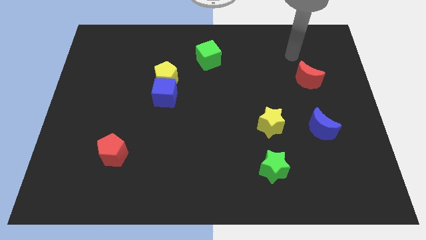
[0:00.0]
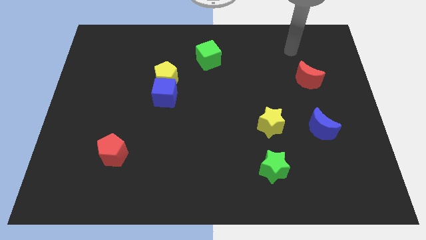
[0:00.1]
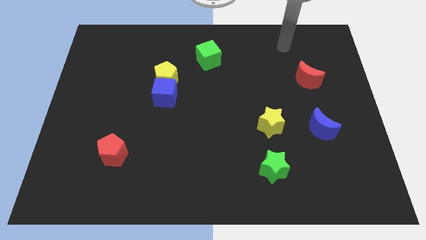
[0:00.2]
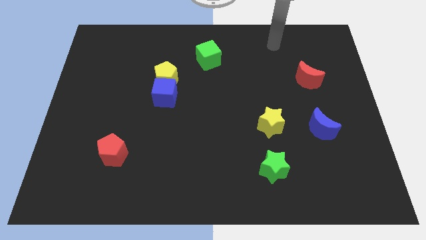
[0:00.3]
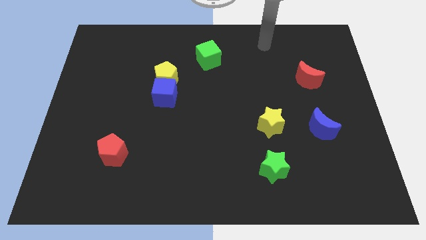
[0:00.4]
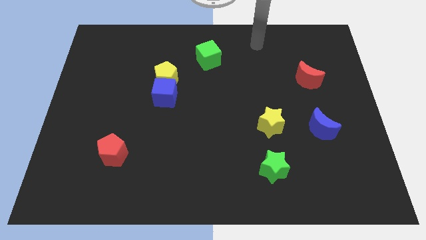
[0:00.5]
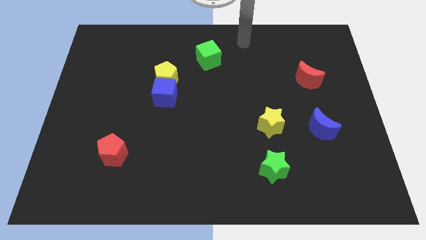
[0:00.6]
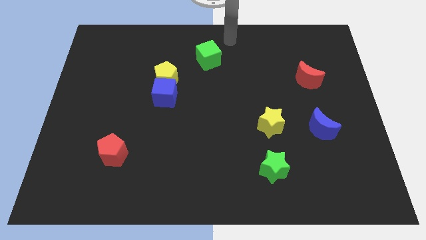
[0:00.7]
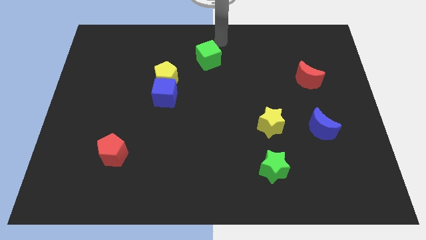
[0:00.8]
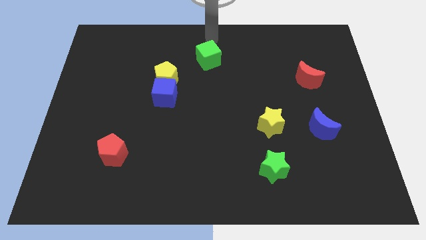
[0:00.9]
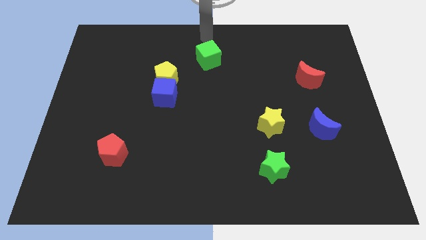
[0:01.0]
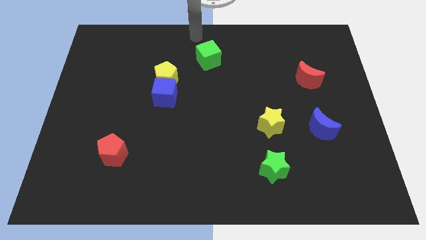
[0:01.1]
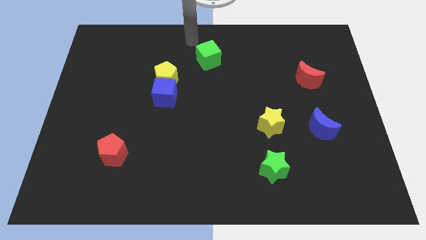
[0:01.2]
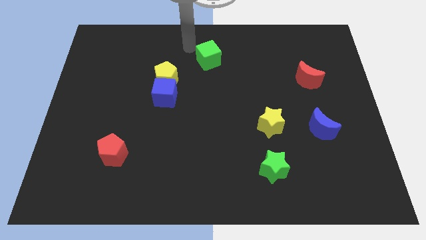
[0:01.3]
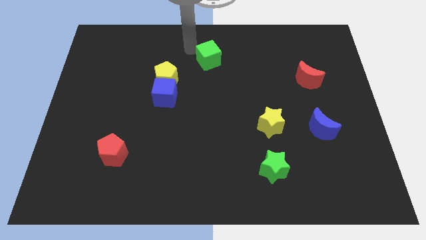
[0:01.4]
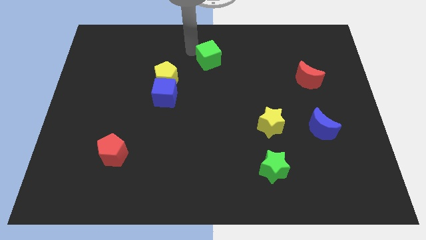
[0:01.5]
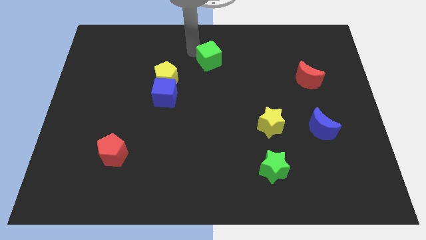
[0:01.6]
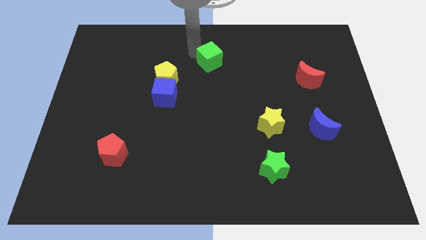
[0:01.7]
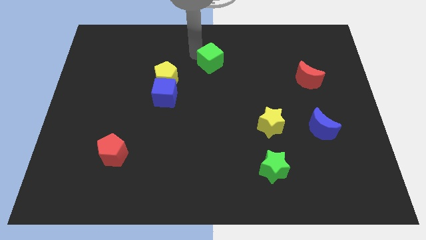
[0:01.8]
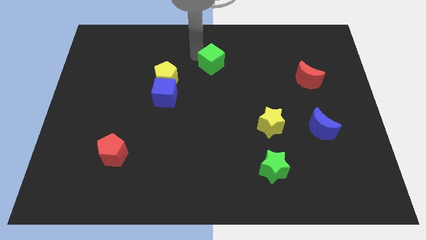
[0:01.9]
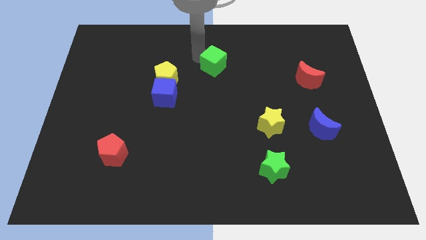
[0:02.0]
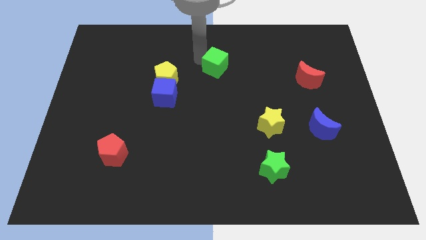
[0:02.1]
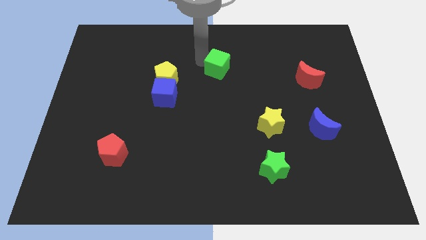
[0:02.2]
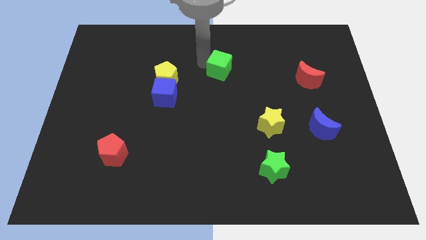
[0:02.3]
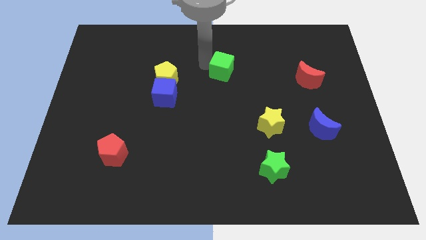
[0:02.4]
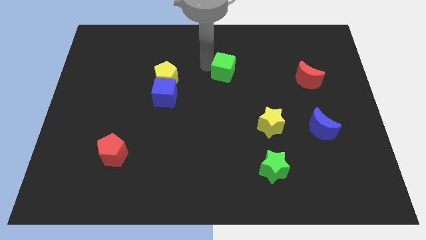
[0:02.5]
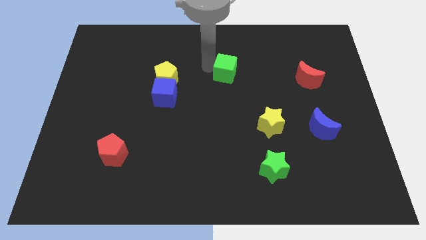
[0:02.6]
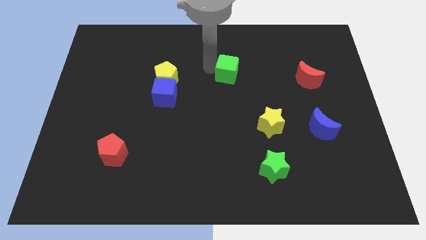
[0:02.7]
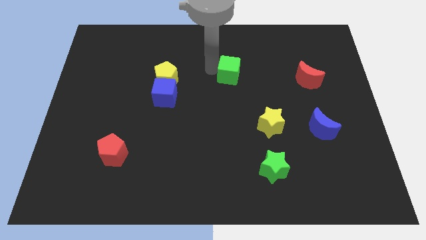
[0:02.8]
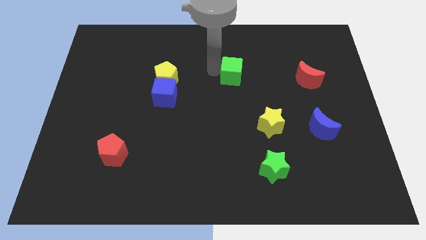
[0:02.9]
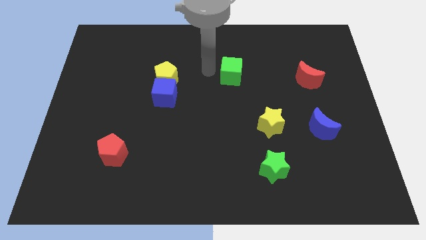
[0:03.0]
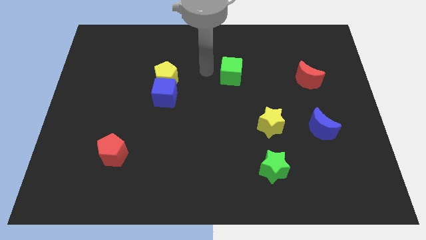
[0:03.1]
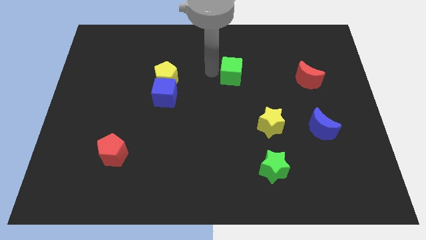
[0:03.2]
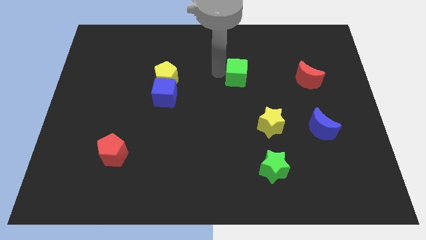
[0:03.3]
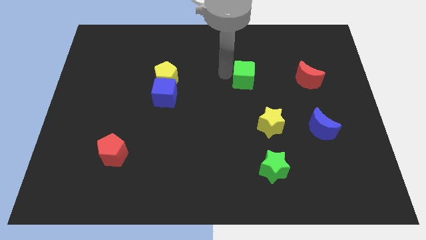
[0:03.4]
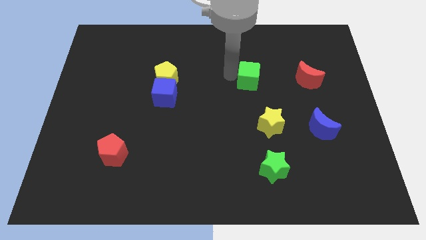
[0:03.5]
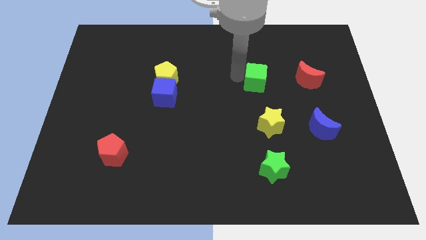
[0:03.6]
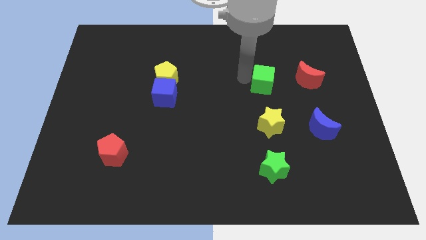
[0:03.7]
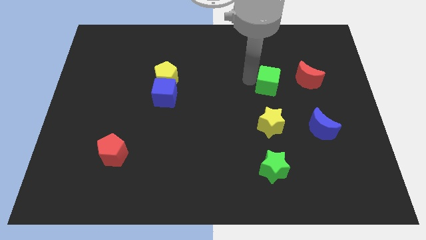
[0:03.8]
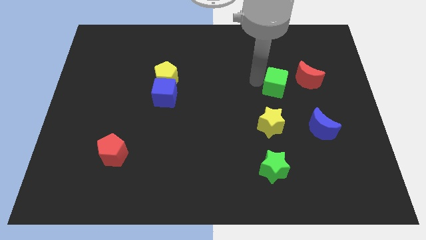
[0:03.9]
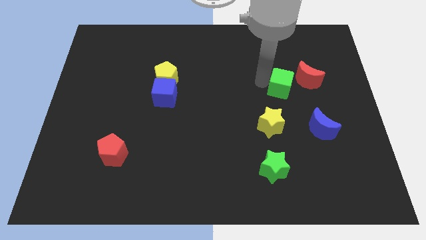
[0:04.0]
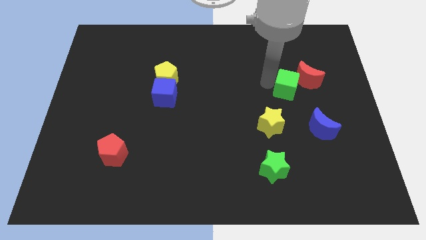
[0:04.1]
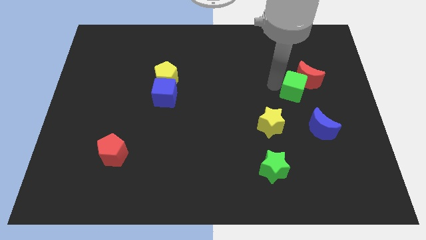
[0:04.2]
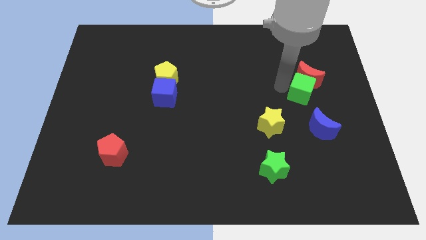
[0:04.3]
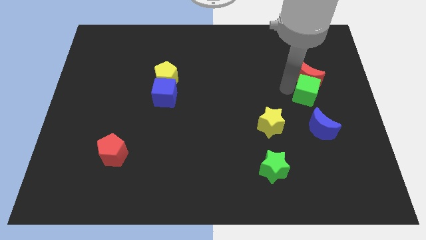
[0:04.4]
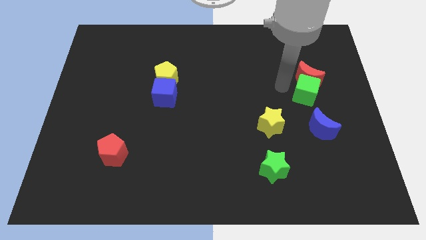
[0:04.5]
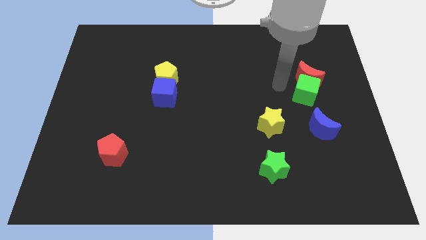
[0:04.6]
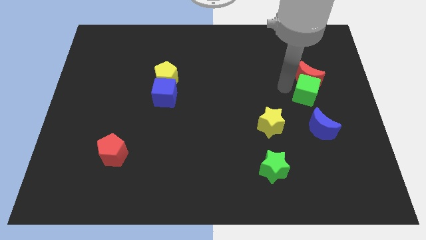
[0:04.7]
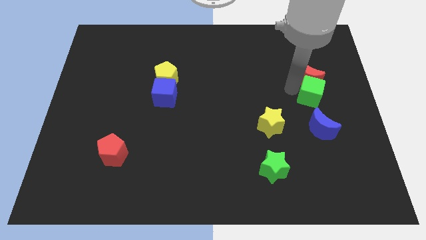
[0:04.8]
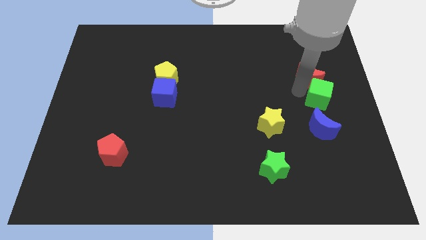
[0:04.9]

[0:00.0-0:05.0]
slide the green cube to the center right

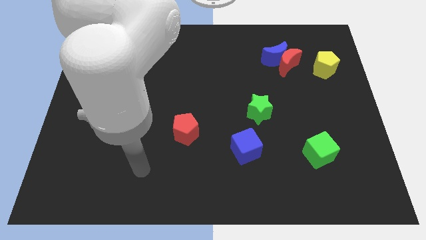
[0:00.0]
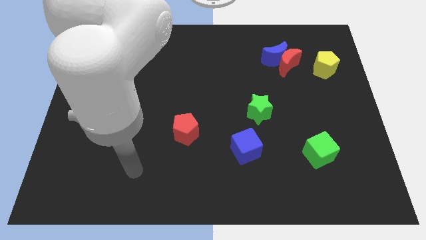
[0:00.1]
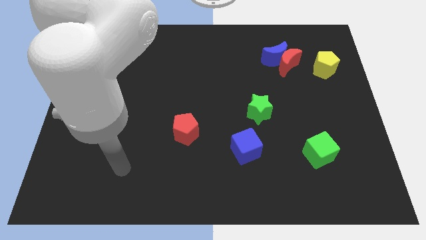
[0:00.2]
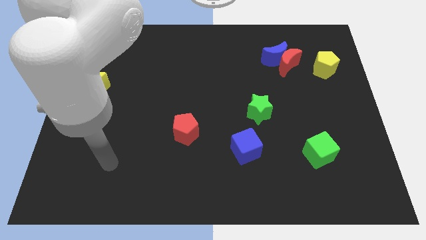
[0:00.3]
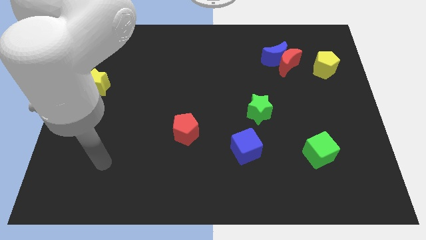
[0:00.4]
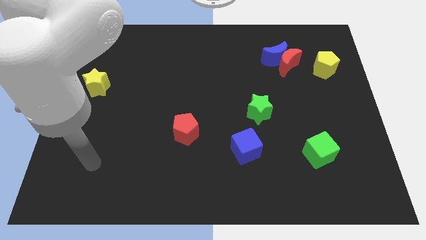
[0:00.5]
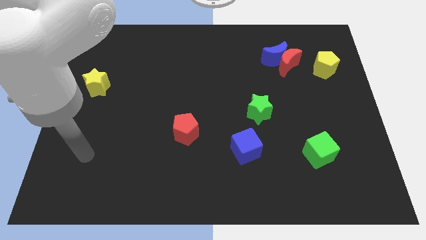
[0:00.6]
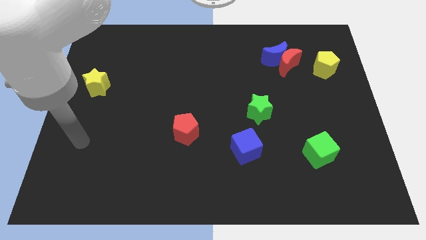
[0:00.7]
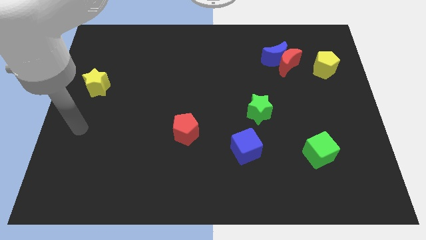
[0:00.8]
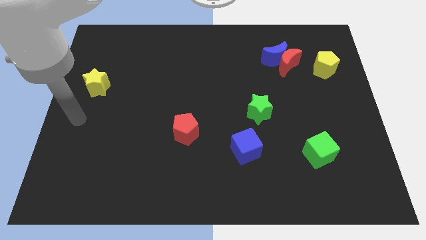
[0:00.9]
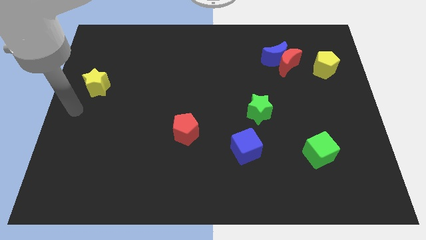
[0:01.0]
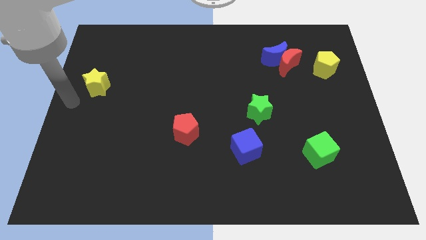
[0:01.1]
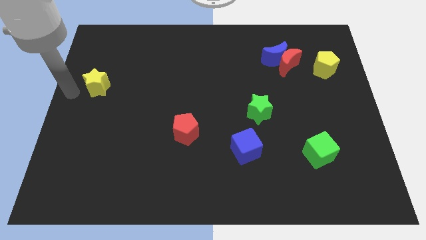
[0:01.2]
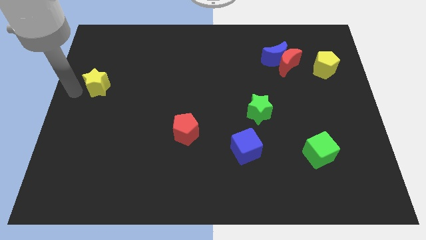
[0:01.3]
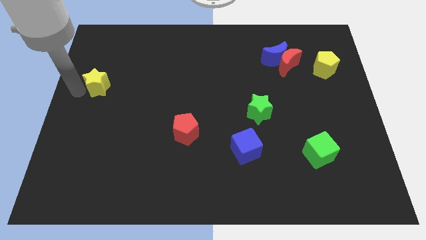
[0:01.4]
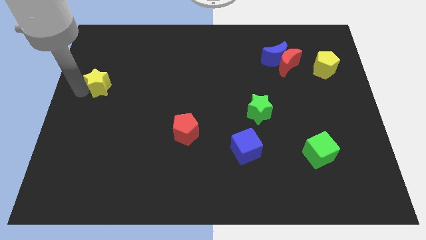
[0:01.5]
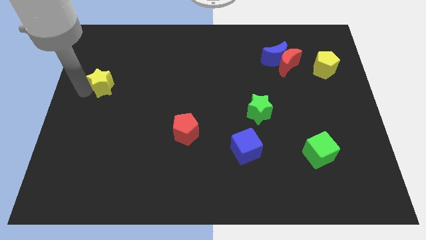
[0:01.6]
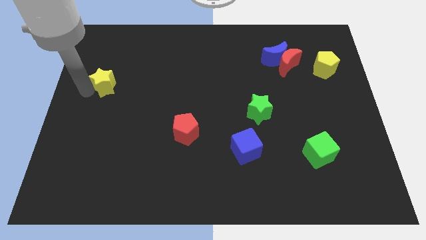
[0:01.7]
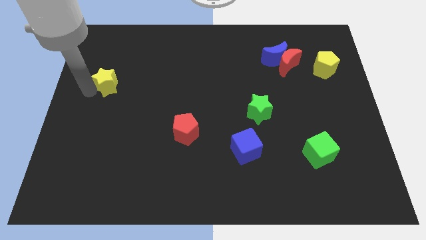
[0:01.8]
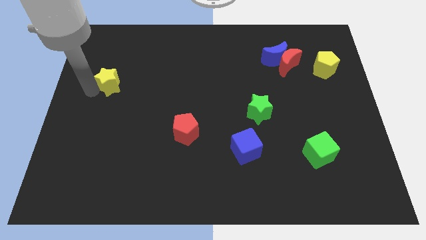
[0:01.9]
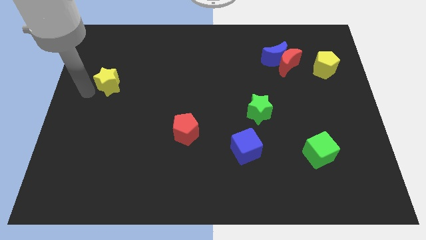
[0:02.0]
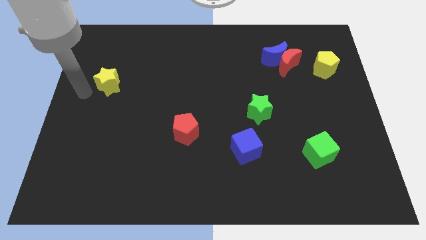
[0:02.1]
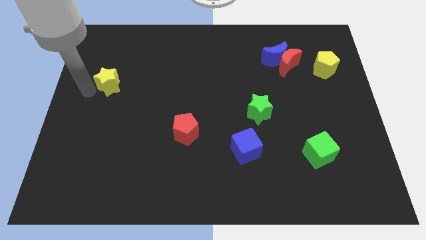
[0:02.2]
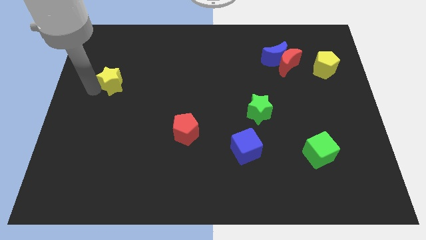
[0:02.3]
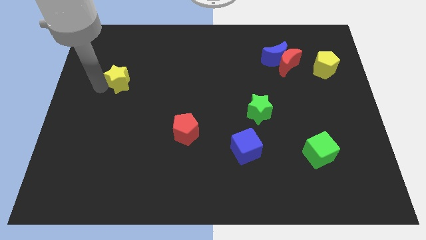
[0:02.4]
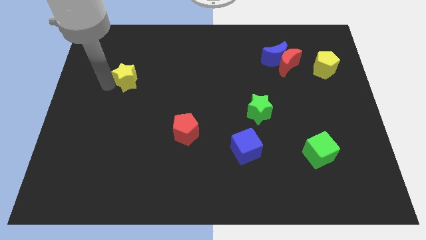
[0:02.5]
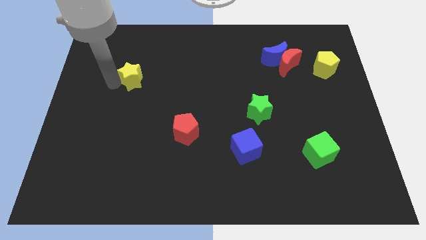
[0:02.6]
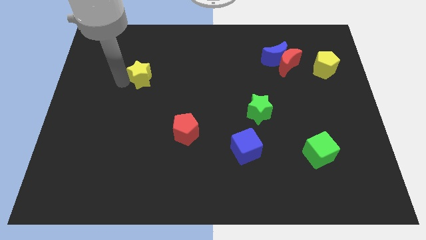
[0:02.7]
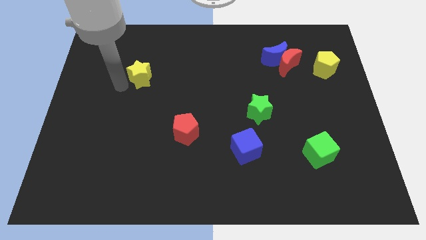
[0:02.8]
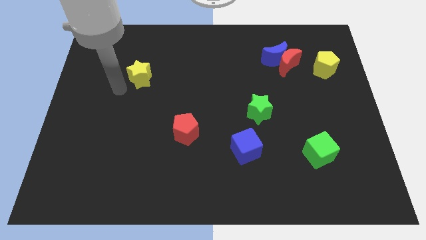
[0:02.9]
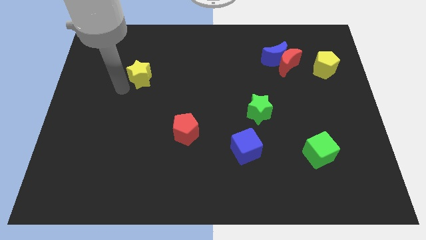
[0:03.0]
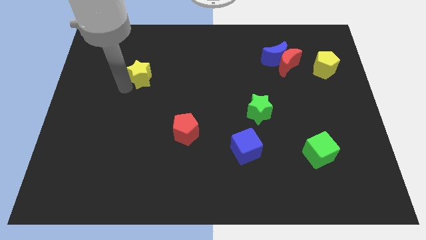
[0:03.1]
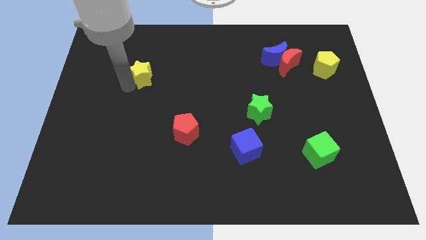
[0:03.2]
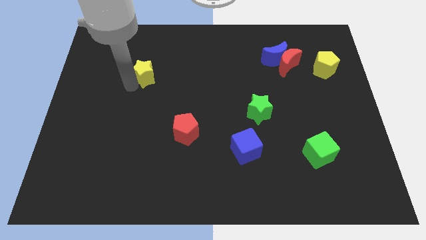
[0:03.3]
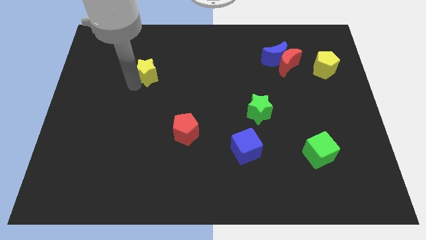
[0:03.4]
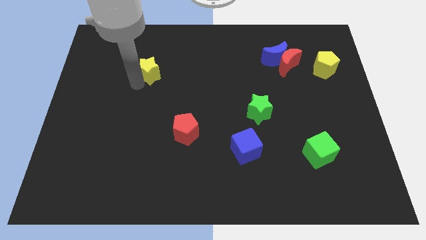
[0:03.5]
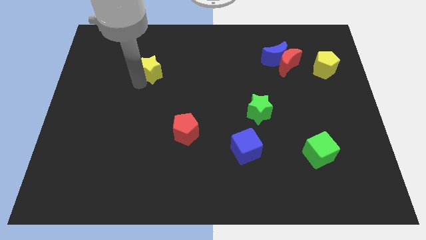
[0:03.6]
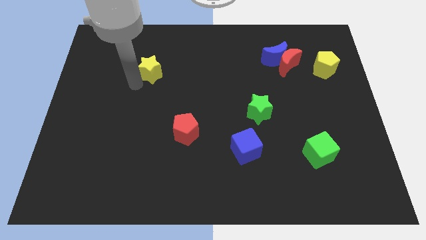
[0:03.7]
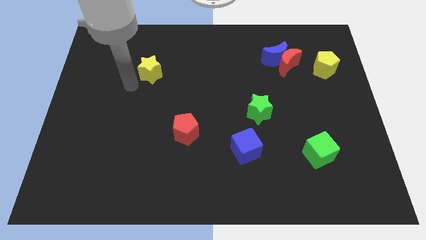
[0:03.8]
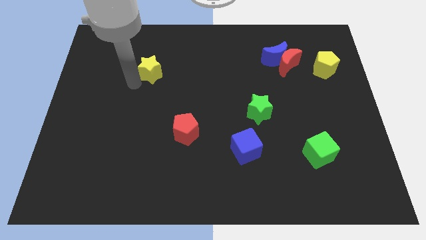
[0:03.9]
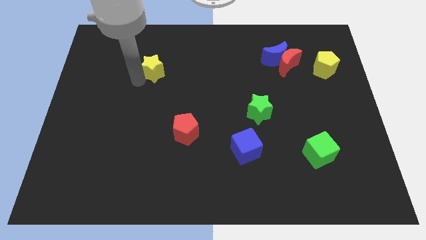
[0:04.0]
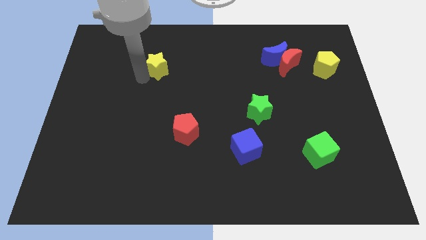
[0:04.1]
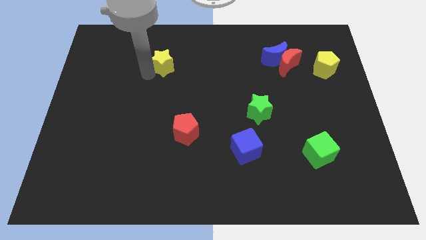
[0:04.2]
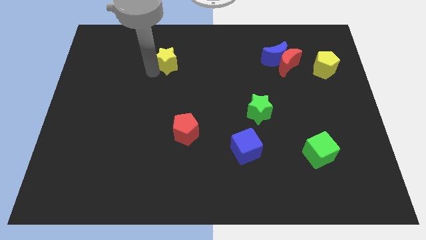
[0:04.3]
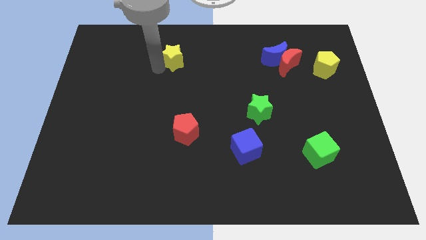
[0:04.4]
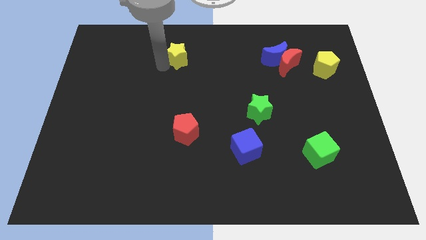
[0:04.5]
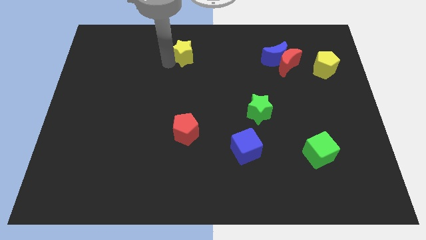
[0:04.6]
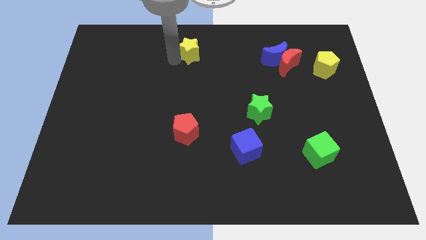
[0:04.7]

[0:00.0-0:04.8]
put the yellow star to the towards your base
